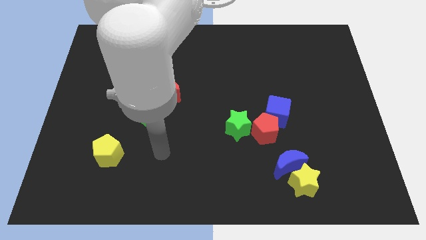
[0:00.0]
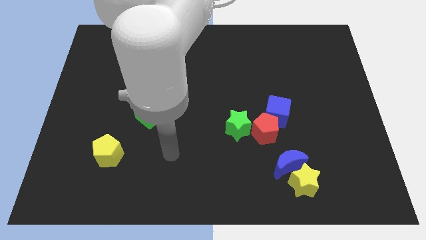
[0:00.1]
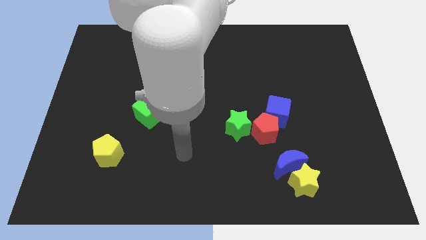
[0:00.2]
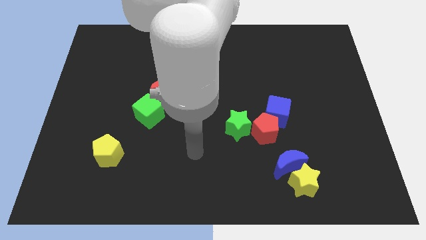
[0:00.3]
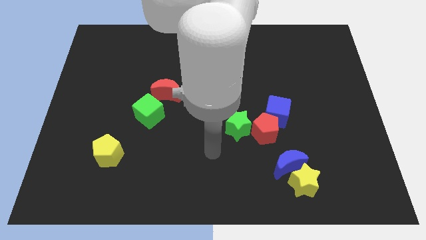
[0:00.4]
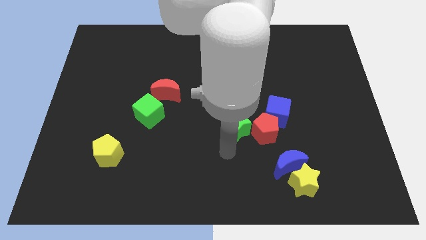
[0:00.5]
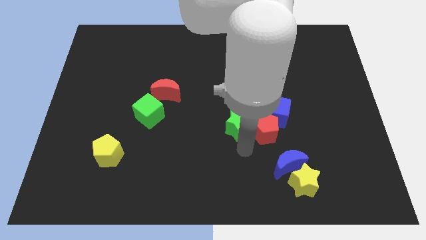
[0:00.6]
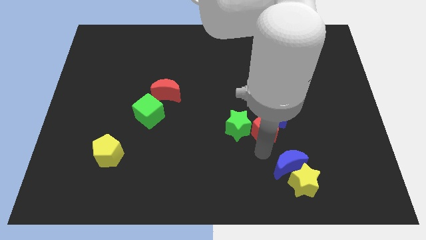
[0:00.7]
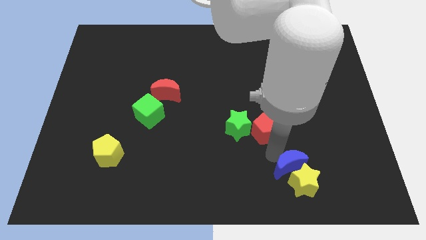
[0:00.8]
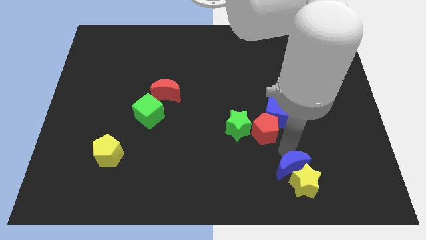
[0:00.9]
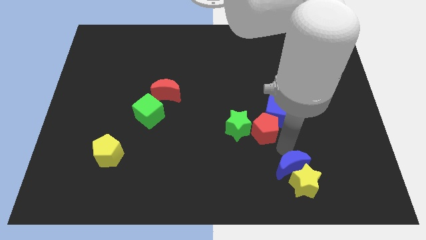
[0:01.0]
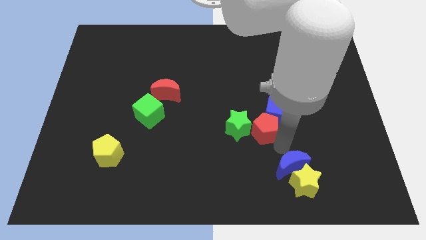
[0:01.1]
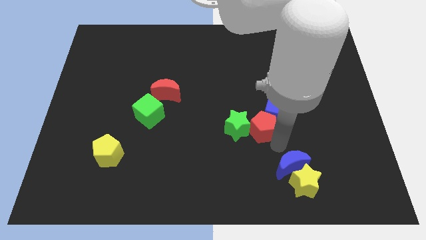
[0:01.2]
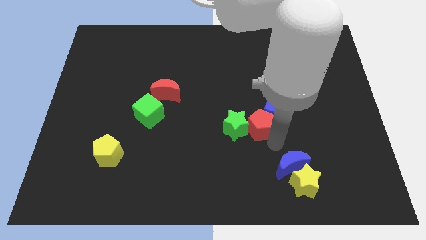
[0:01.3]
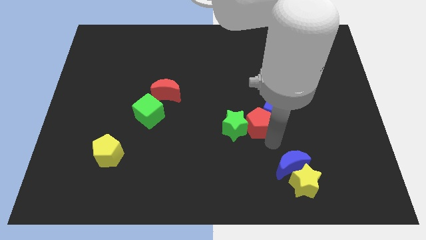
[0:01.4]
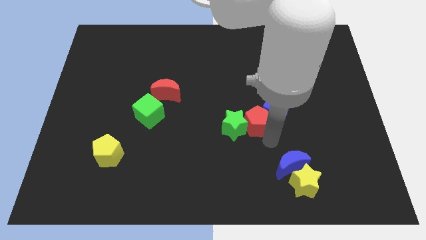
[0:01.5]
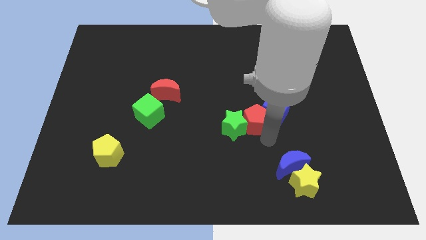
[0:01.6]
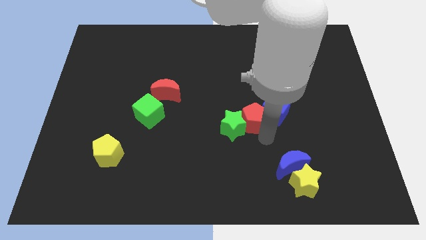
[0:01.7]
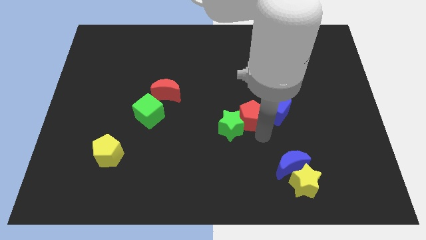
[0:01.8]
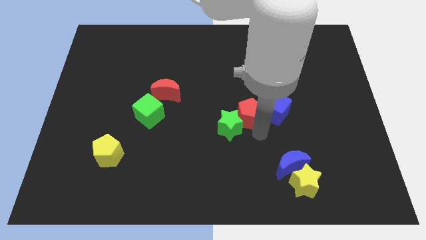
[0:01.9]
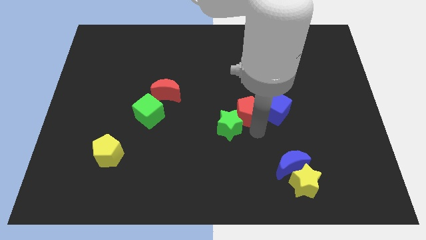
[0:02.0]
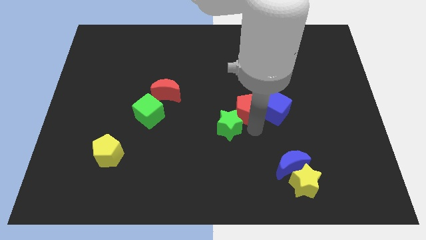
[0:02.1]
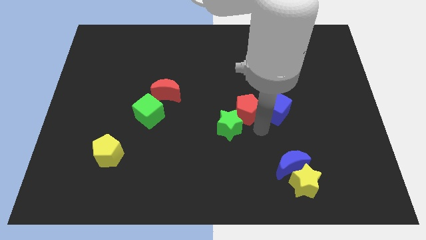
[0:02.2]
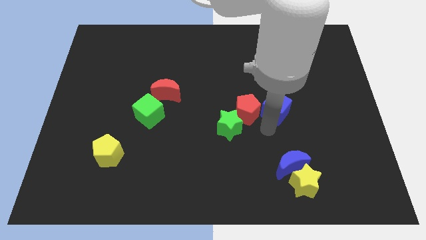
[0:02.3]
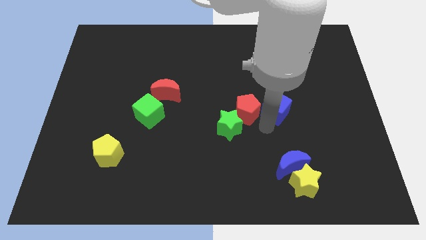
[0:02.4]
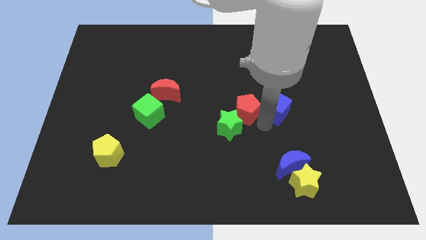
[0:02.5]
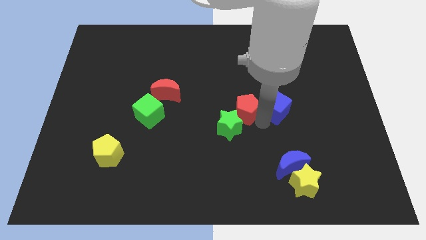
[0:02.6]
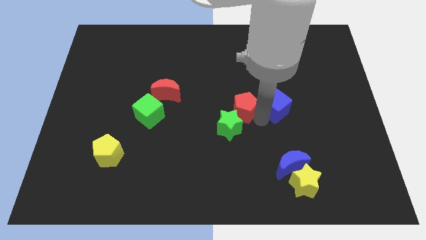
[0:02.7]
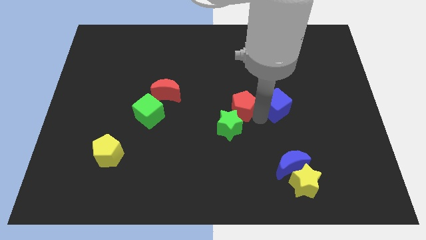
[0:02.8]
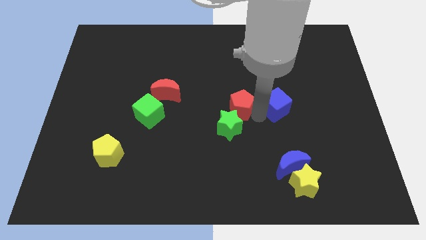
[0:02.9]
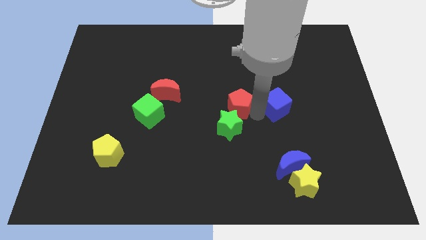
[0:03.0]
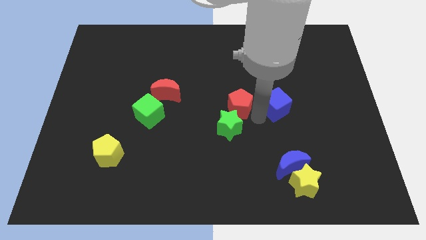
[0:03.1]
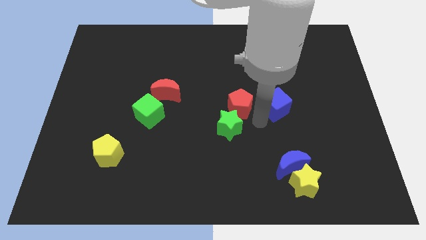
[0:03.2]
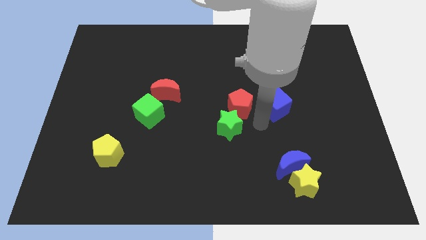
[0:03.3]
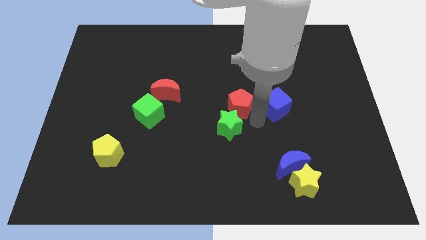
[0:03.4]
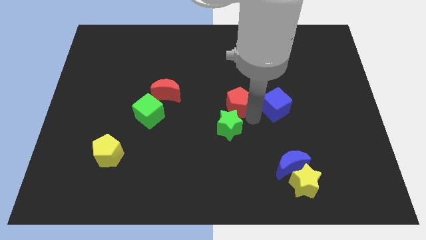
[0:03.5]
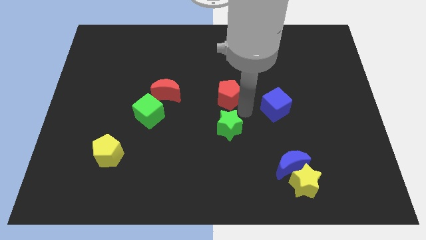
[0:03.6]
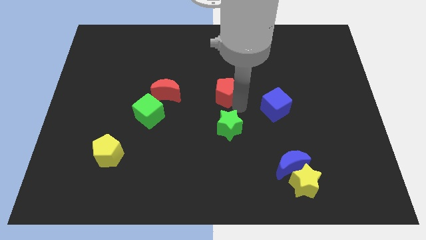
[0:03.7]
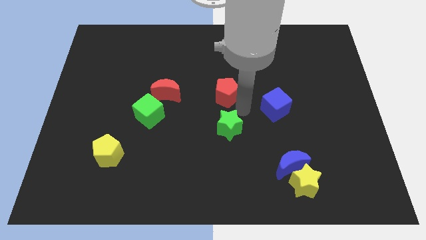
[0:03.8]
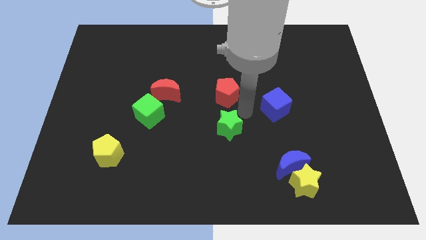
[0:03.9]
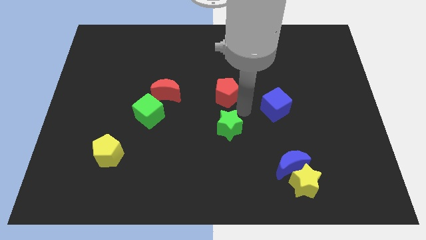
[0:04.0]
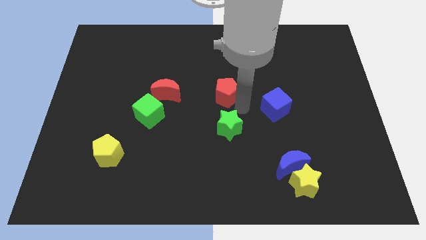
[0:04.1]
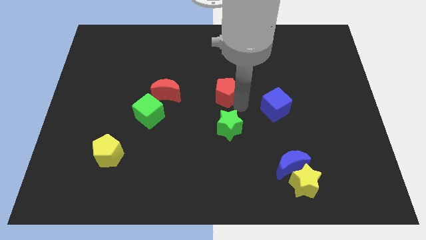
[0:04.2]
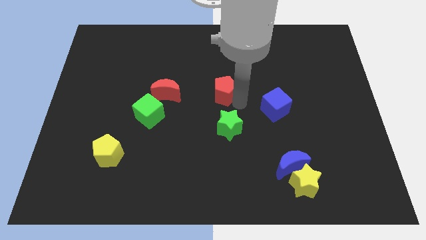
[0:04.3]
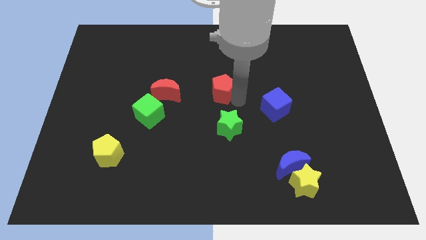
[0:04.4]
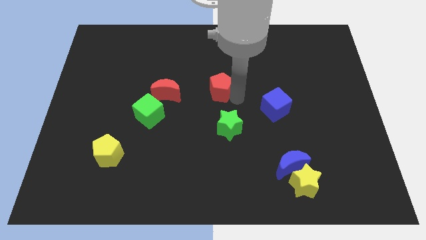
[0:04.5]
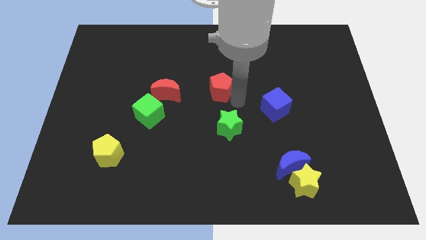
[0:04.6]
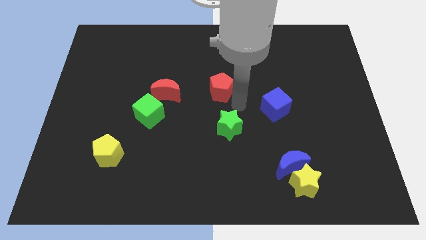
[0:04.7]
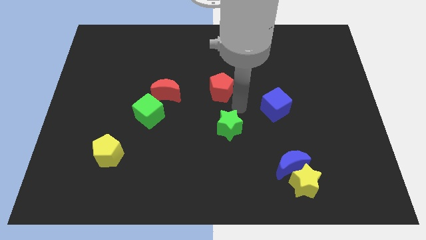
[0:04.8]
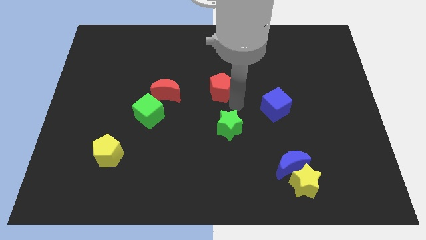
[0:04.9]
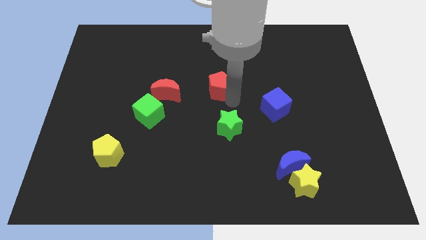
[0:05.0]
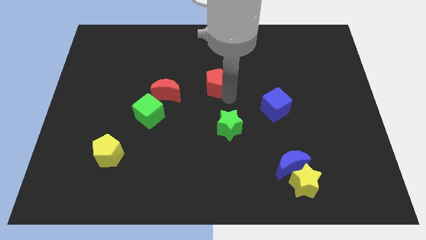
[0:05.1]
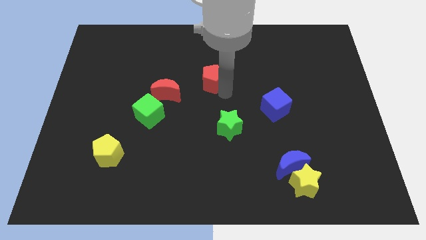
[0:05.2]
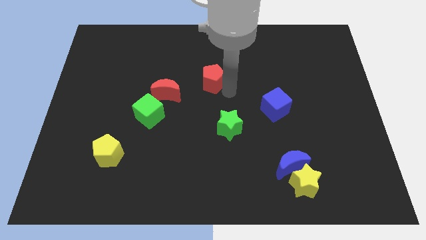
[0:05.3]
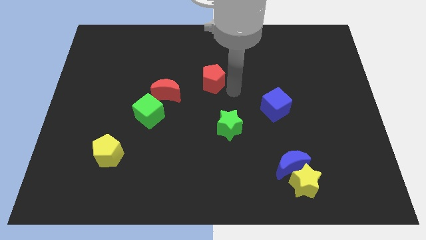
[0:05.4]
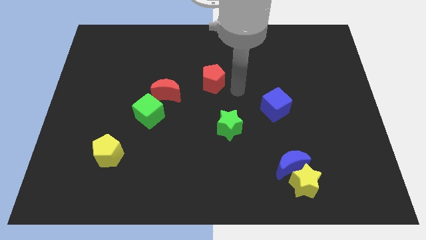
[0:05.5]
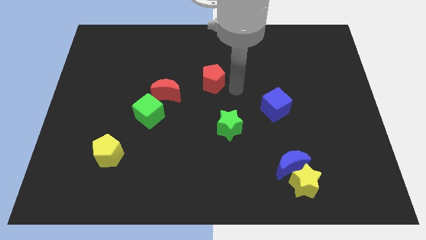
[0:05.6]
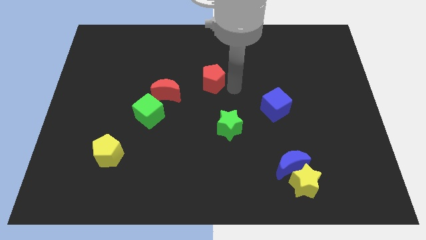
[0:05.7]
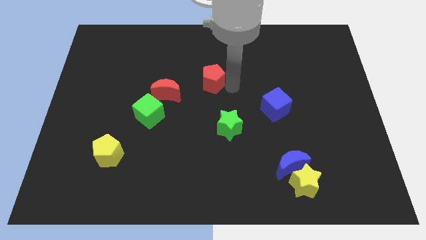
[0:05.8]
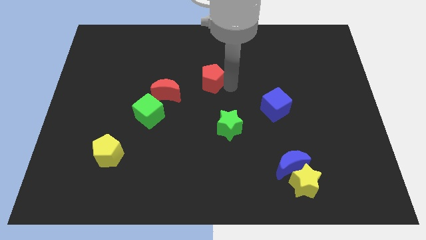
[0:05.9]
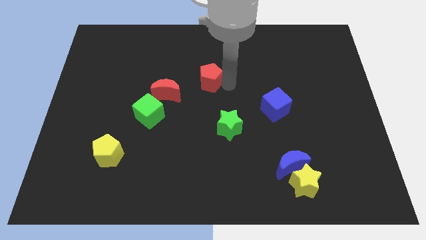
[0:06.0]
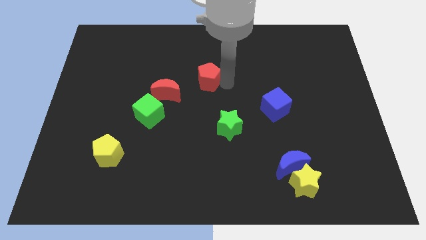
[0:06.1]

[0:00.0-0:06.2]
slide the red pentagon diagonally up and left

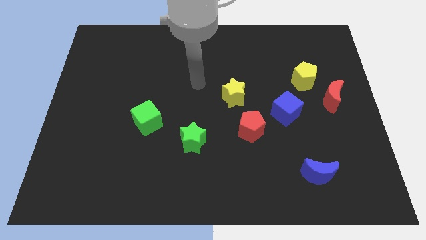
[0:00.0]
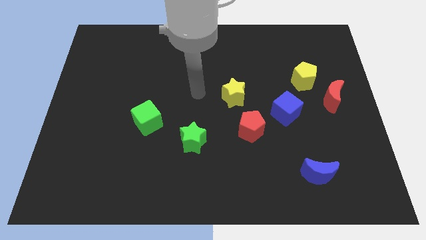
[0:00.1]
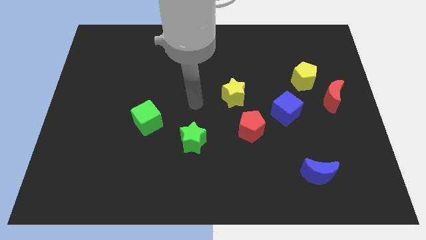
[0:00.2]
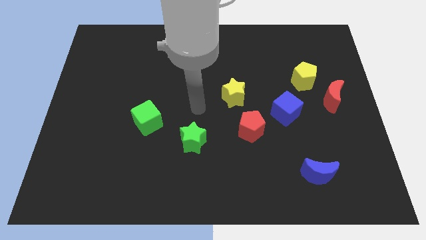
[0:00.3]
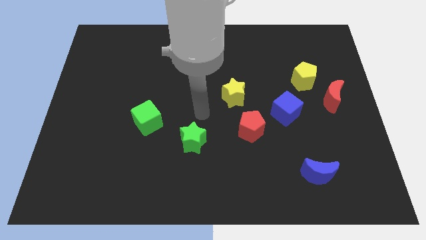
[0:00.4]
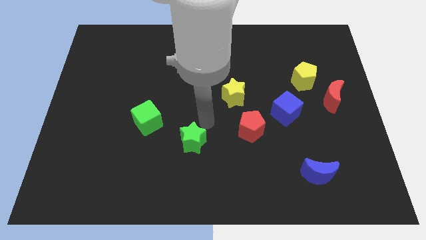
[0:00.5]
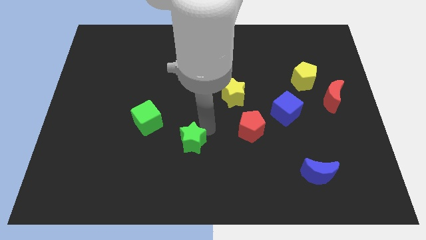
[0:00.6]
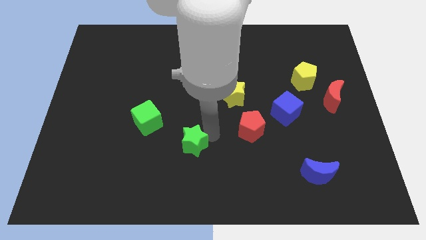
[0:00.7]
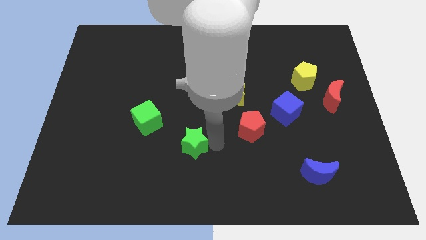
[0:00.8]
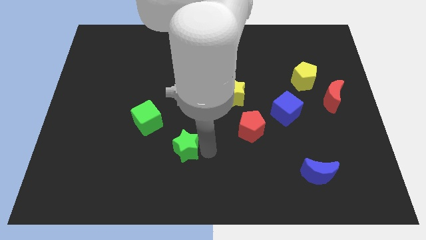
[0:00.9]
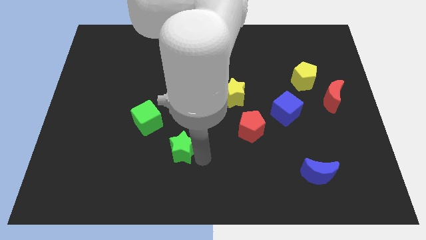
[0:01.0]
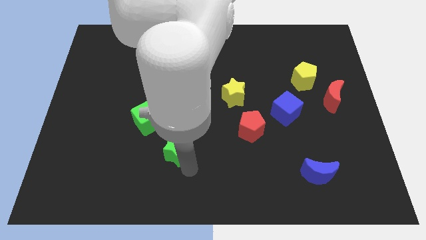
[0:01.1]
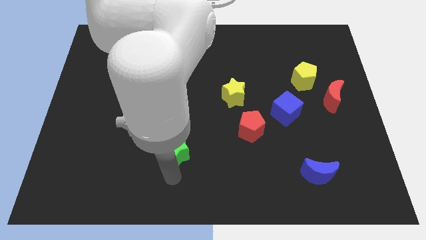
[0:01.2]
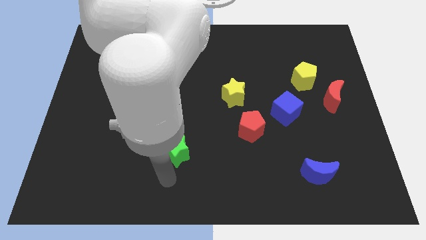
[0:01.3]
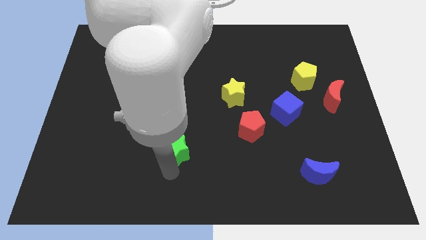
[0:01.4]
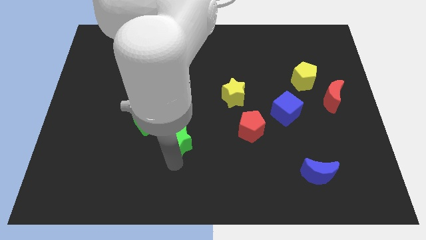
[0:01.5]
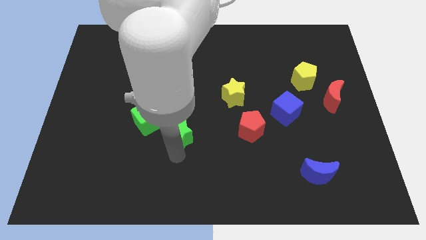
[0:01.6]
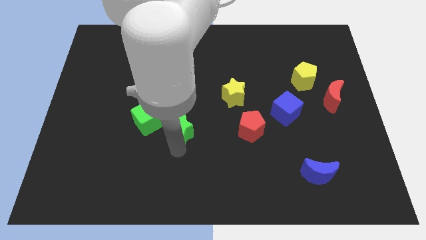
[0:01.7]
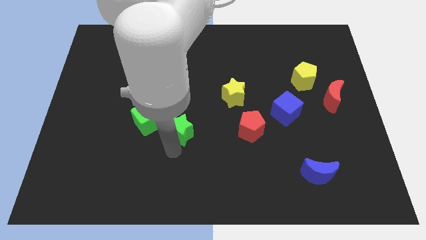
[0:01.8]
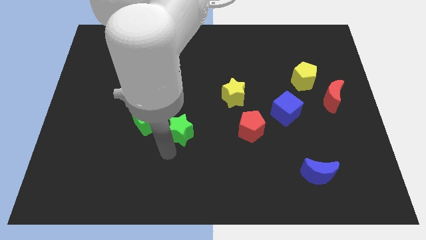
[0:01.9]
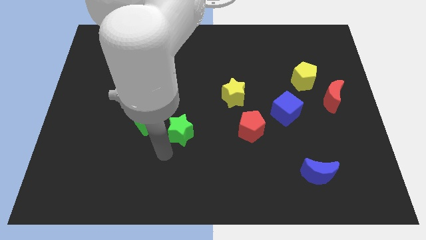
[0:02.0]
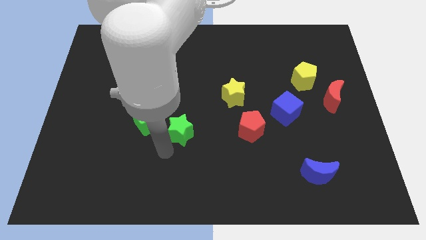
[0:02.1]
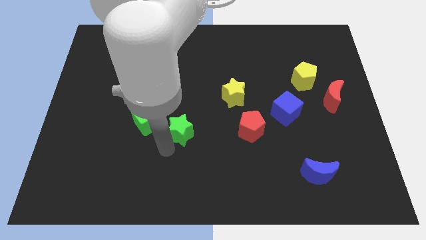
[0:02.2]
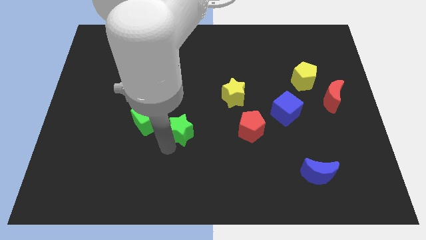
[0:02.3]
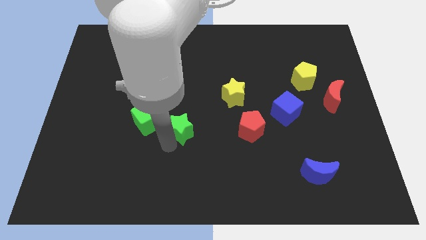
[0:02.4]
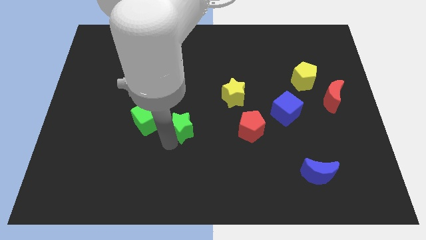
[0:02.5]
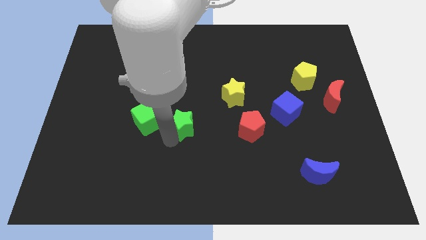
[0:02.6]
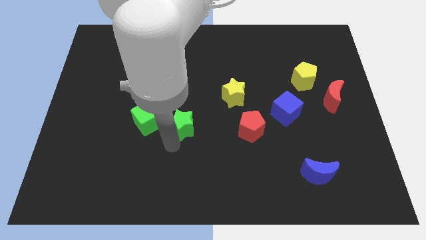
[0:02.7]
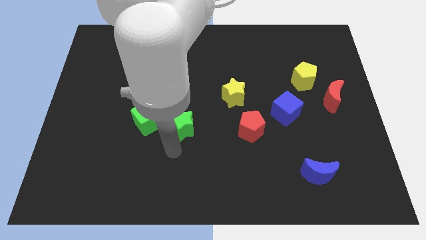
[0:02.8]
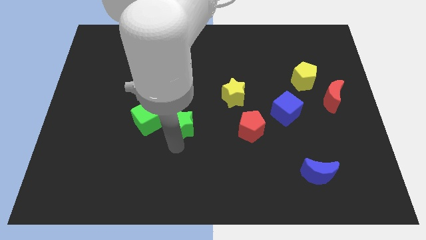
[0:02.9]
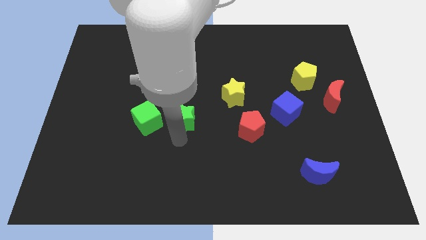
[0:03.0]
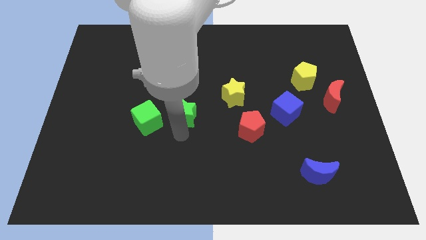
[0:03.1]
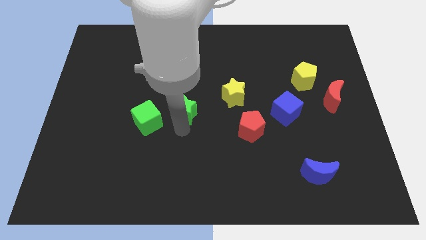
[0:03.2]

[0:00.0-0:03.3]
push the green star upwards a bit
